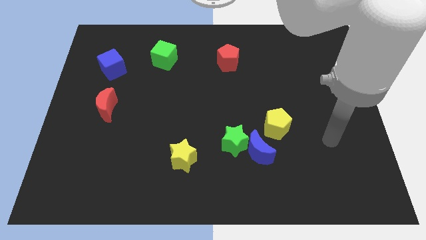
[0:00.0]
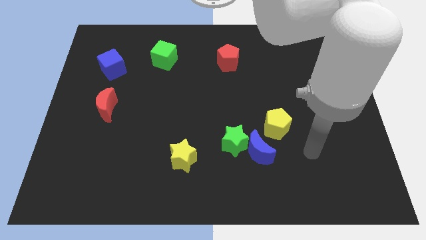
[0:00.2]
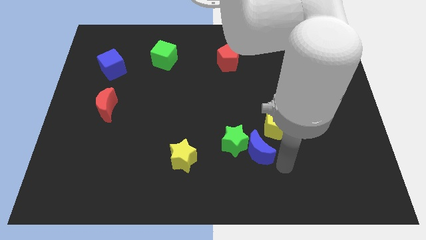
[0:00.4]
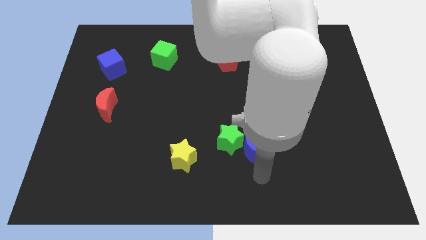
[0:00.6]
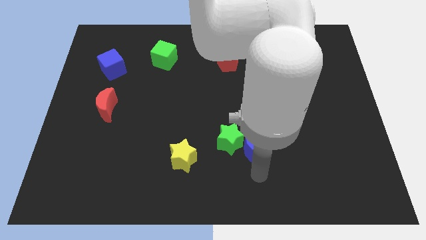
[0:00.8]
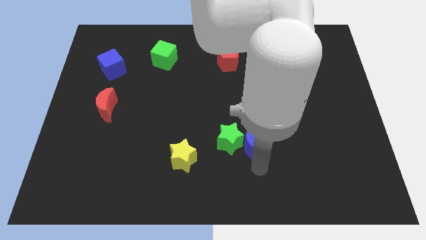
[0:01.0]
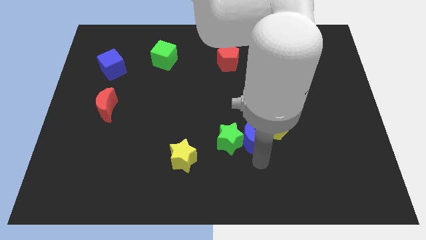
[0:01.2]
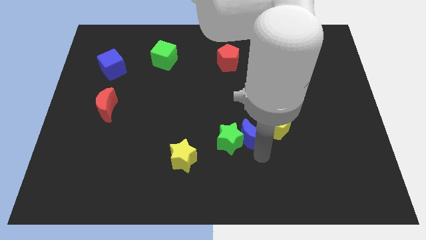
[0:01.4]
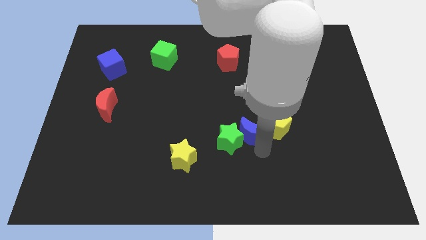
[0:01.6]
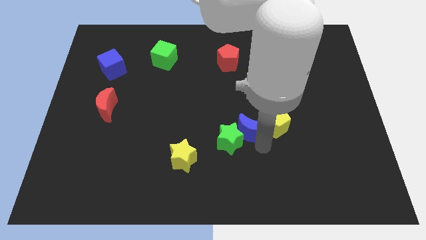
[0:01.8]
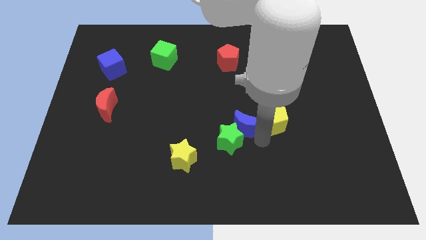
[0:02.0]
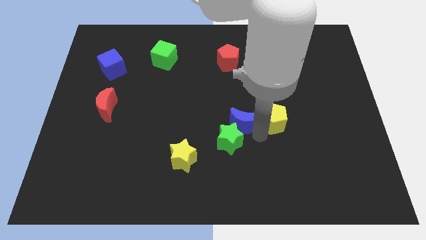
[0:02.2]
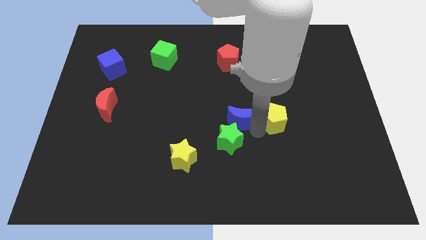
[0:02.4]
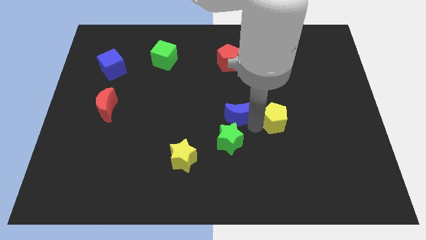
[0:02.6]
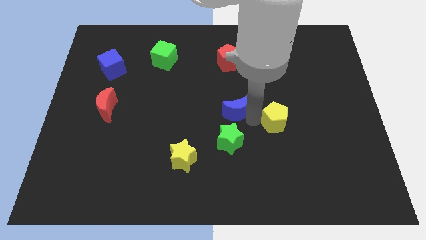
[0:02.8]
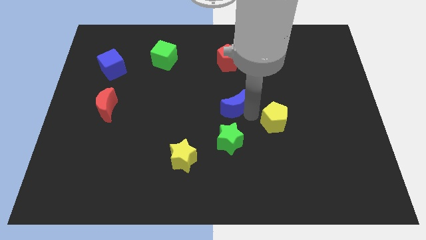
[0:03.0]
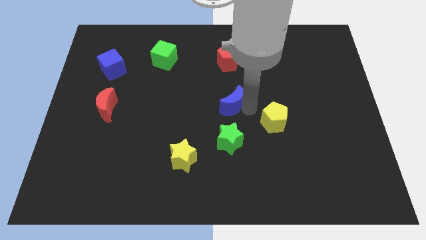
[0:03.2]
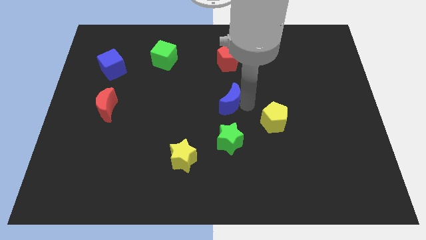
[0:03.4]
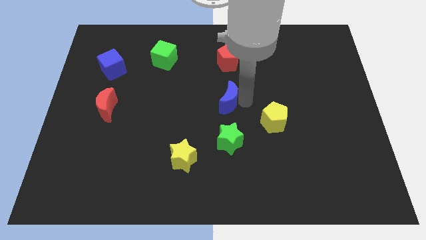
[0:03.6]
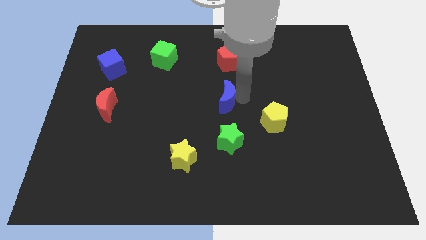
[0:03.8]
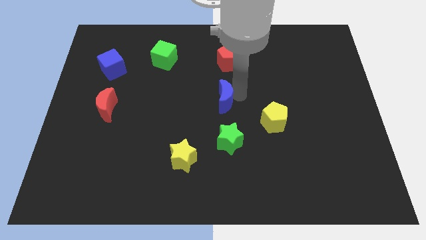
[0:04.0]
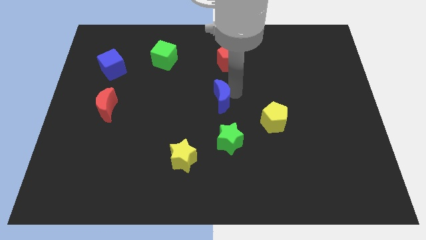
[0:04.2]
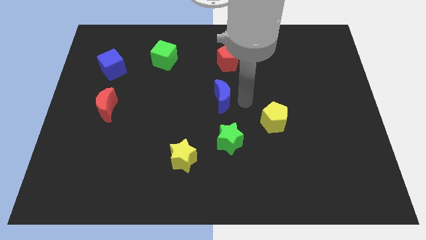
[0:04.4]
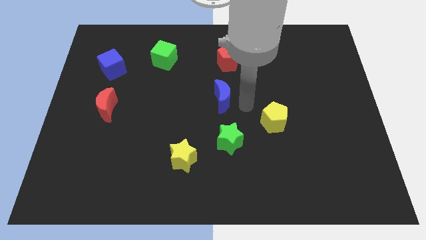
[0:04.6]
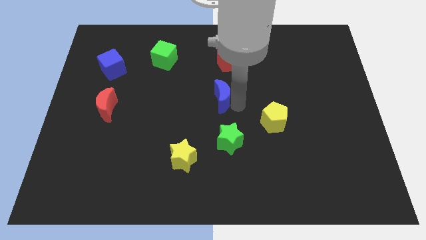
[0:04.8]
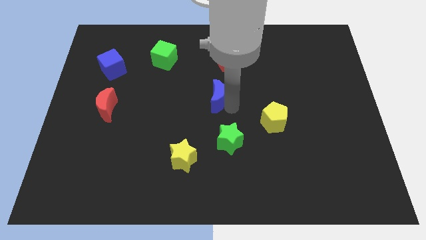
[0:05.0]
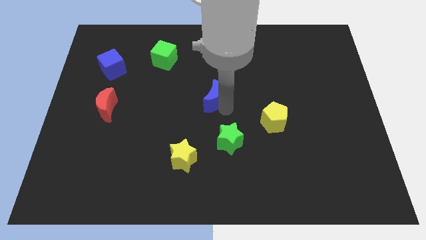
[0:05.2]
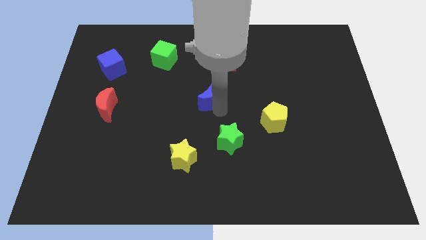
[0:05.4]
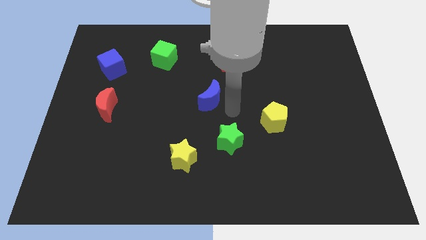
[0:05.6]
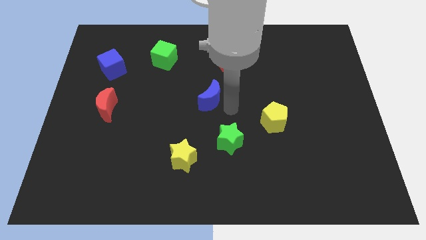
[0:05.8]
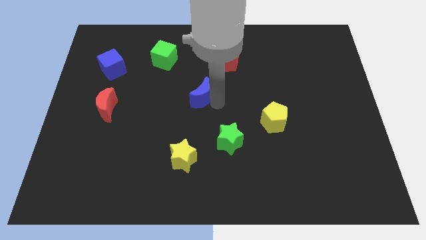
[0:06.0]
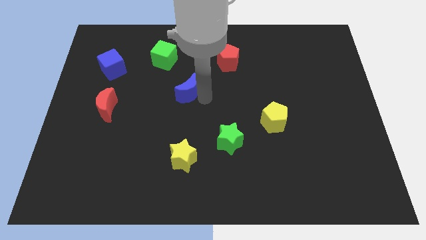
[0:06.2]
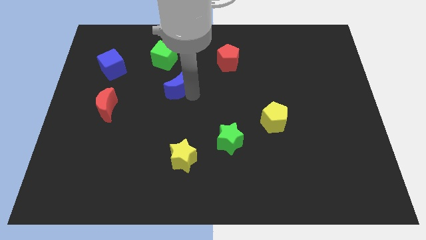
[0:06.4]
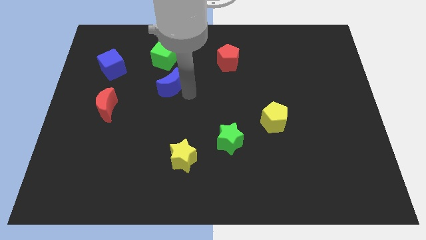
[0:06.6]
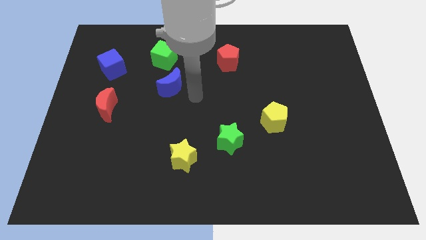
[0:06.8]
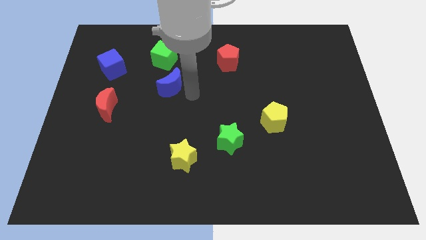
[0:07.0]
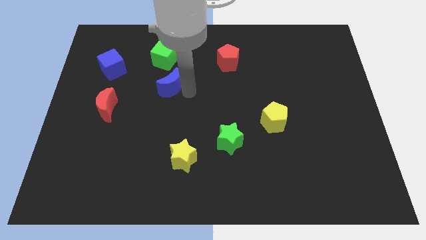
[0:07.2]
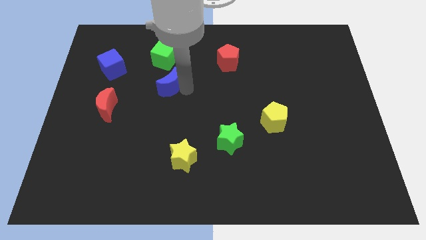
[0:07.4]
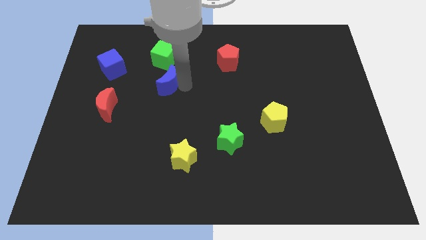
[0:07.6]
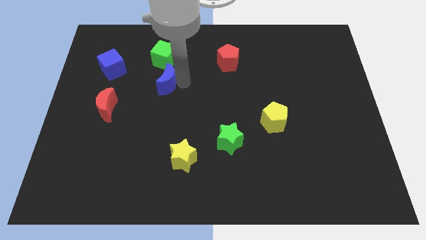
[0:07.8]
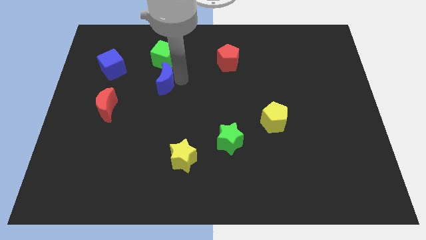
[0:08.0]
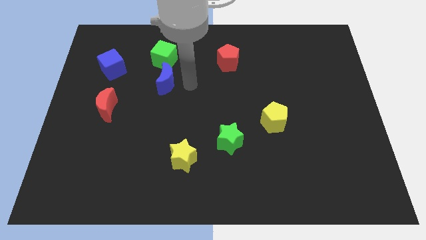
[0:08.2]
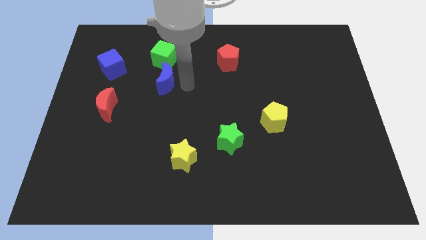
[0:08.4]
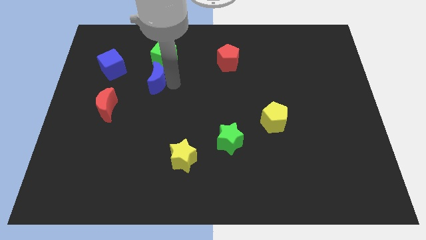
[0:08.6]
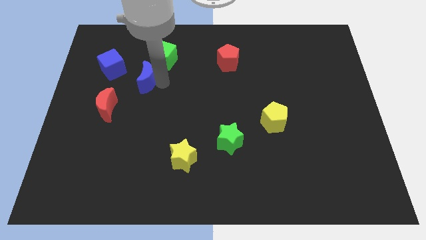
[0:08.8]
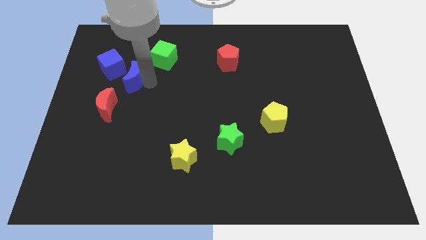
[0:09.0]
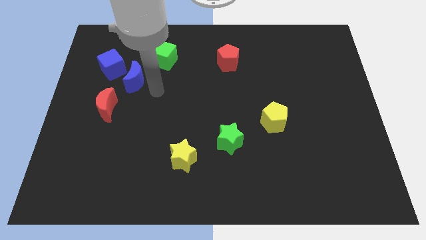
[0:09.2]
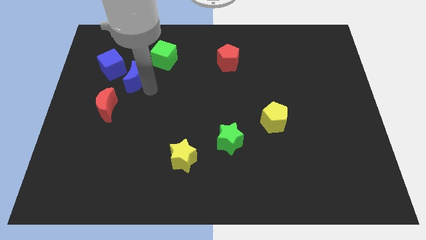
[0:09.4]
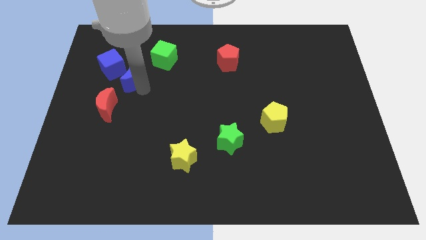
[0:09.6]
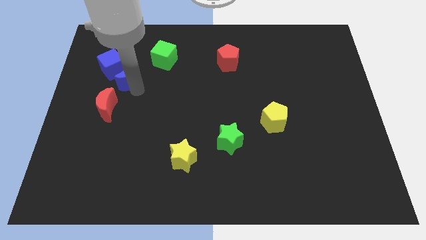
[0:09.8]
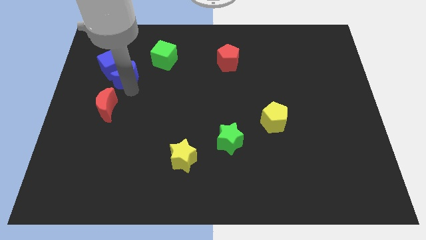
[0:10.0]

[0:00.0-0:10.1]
move the blue moon towards the blue cube

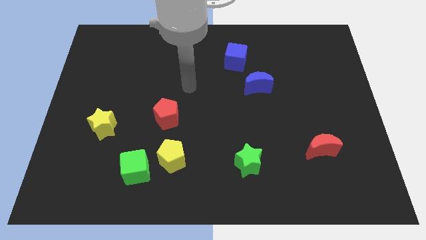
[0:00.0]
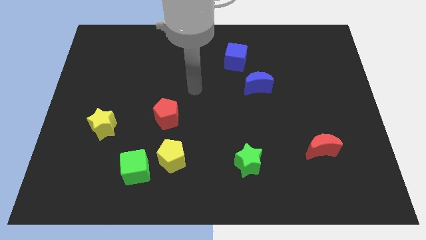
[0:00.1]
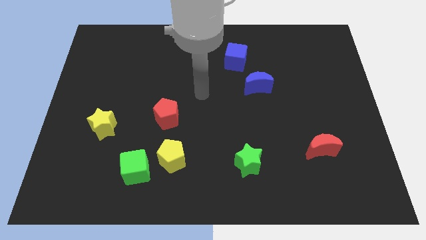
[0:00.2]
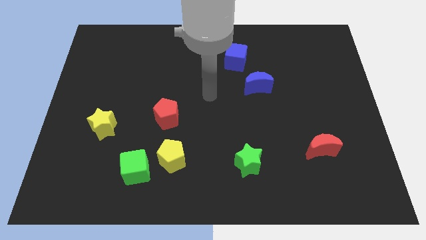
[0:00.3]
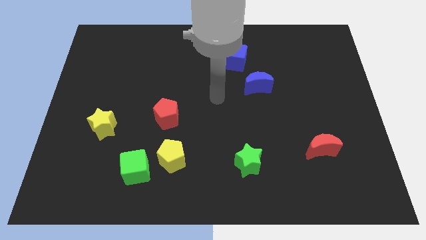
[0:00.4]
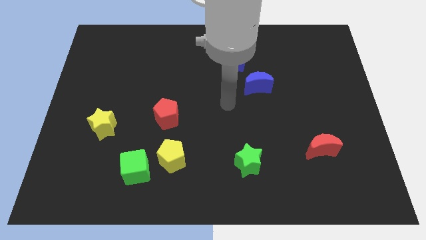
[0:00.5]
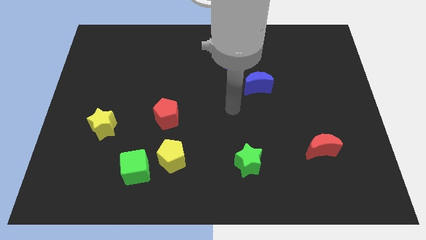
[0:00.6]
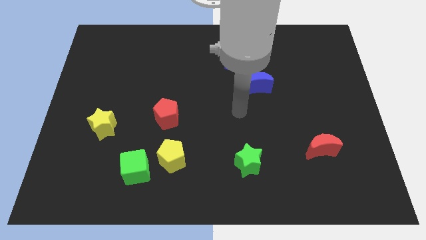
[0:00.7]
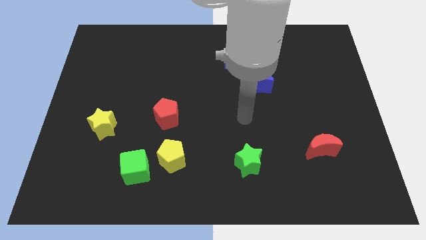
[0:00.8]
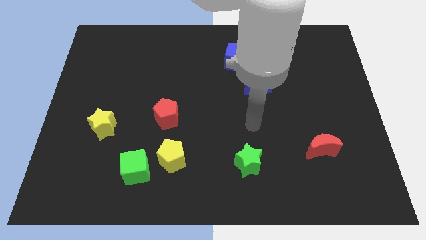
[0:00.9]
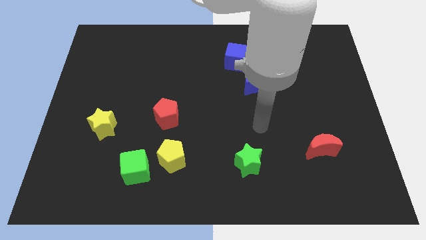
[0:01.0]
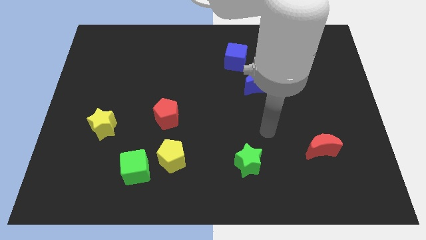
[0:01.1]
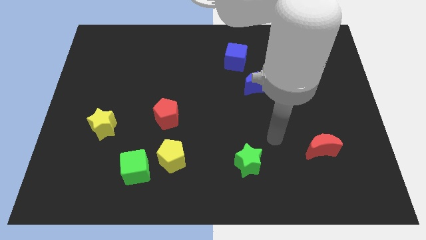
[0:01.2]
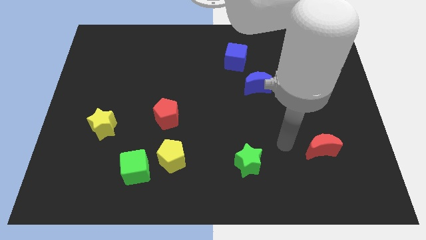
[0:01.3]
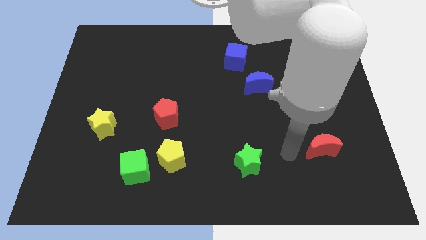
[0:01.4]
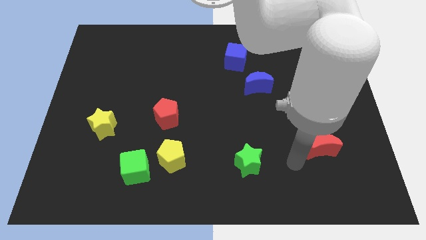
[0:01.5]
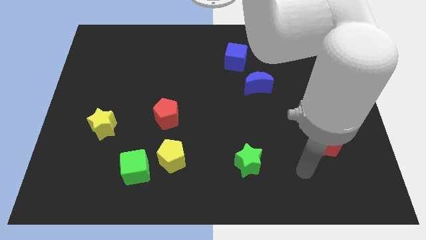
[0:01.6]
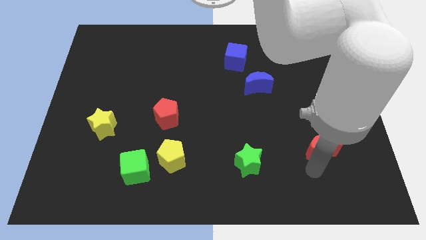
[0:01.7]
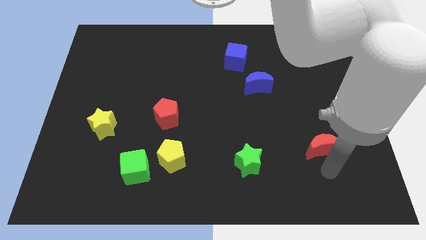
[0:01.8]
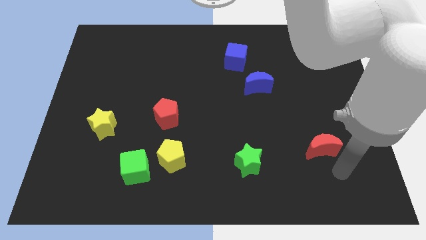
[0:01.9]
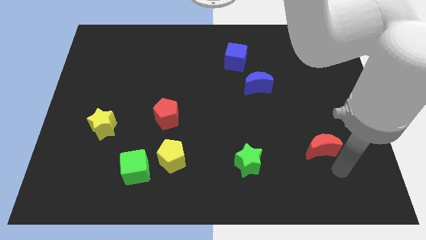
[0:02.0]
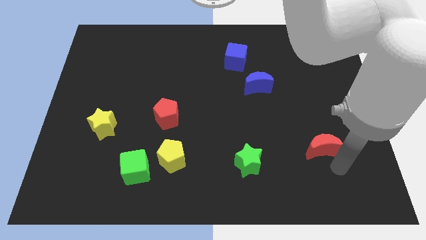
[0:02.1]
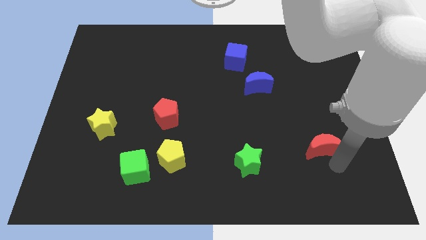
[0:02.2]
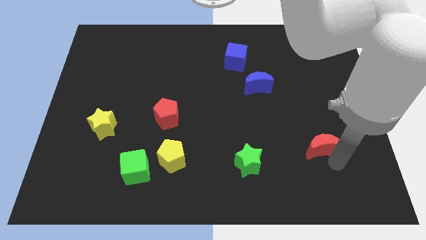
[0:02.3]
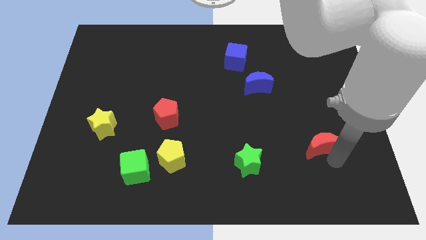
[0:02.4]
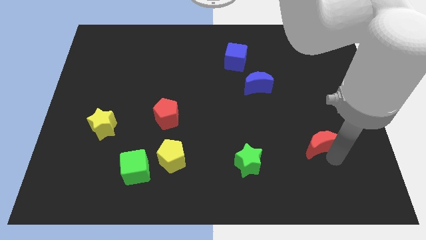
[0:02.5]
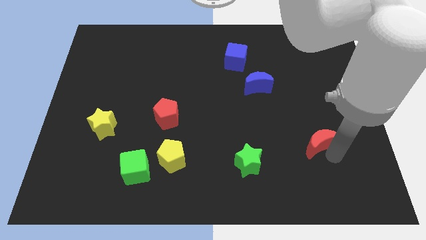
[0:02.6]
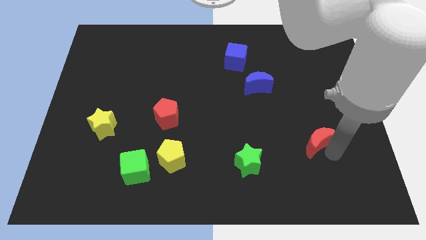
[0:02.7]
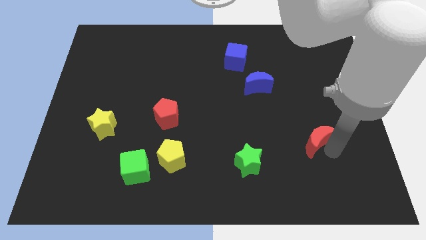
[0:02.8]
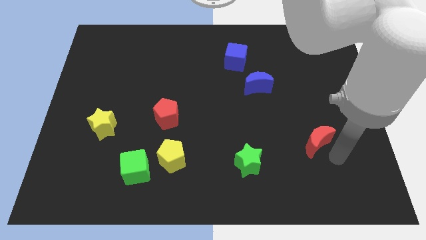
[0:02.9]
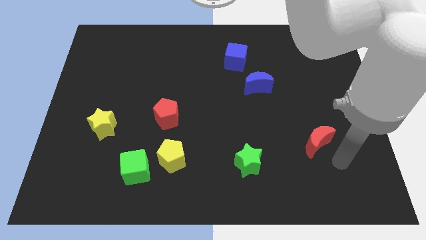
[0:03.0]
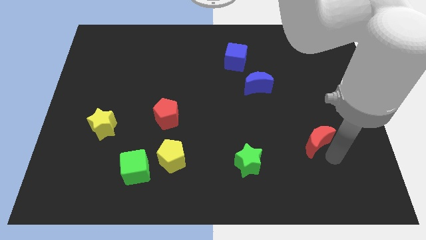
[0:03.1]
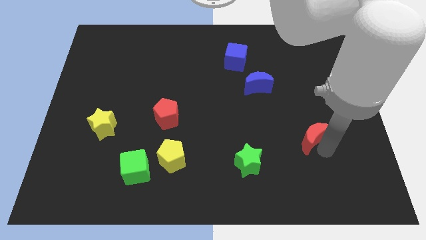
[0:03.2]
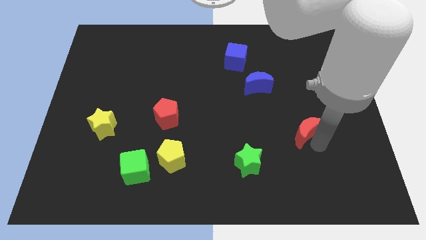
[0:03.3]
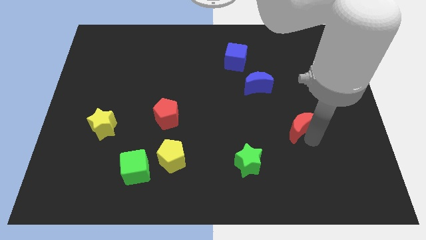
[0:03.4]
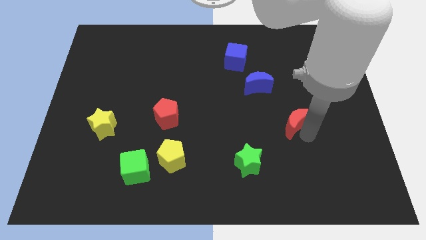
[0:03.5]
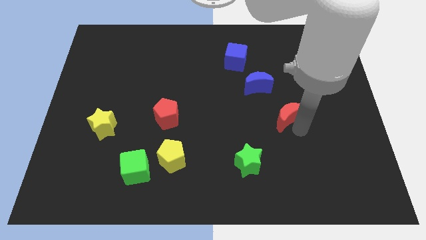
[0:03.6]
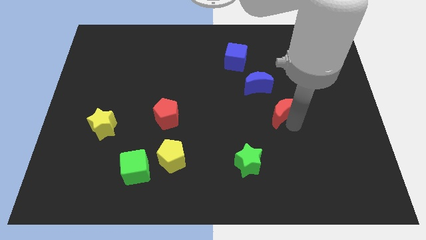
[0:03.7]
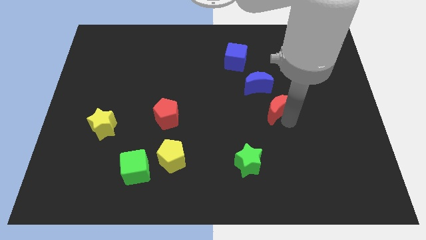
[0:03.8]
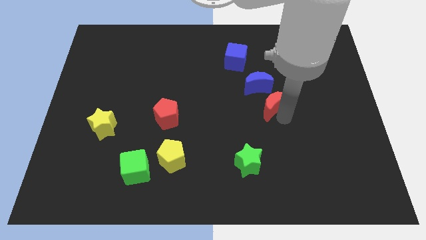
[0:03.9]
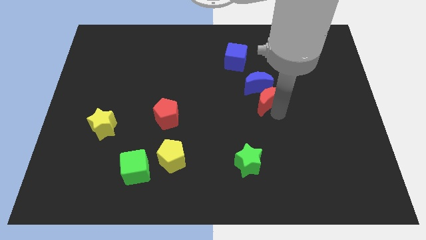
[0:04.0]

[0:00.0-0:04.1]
move the red moon close to the blue moon
